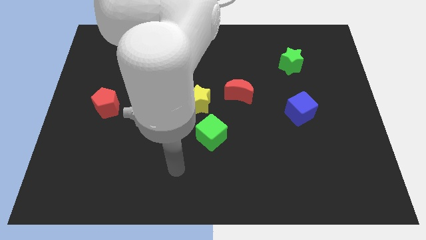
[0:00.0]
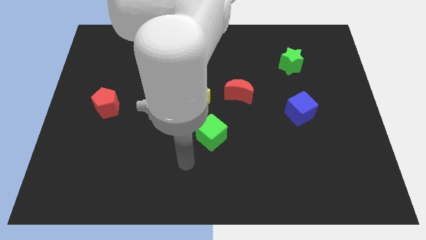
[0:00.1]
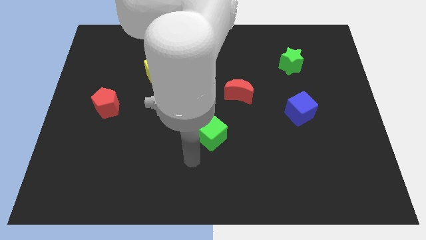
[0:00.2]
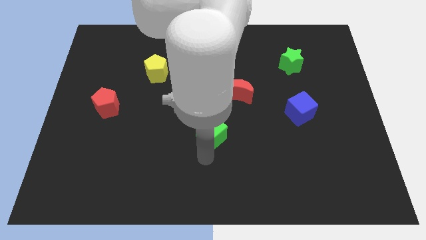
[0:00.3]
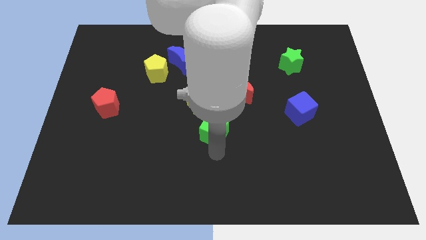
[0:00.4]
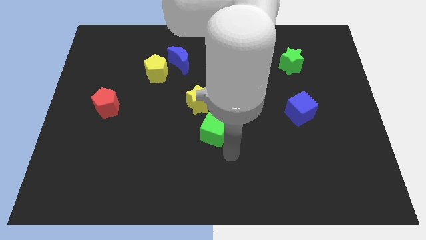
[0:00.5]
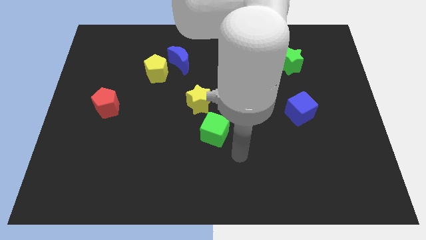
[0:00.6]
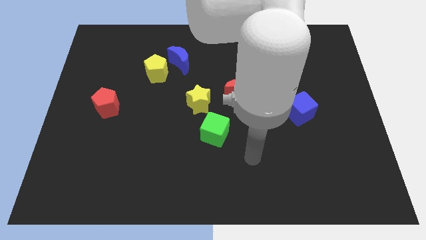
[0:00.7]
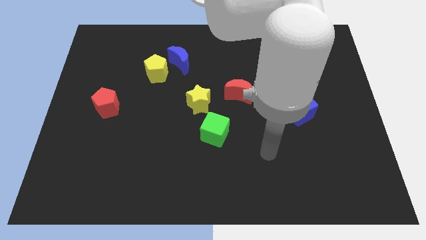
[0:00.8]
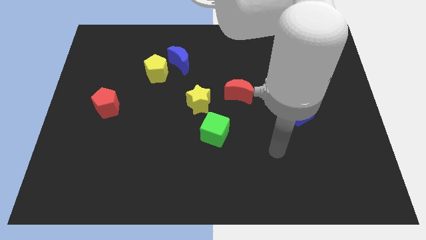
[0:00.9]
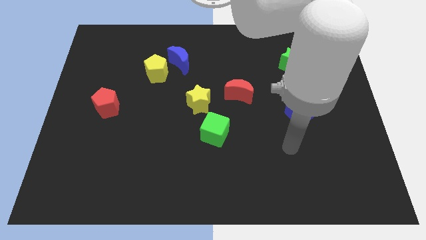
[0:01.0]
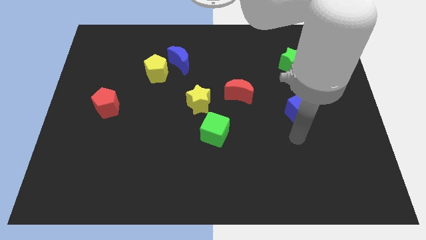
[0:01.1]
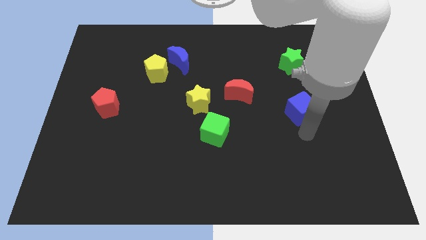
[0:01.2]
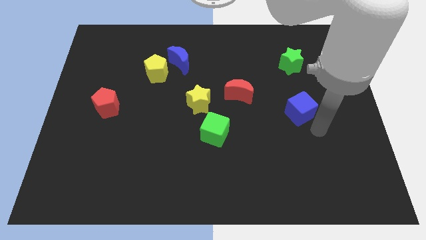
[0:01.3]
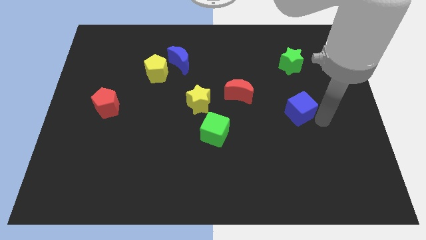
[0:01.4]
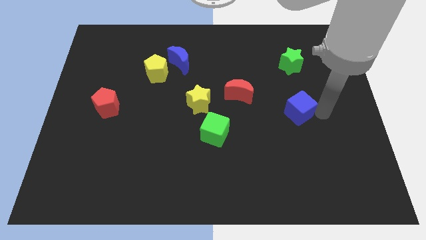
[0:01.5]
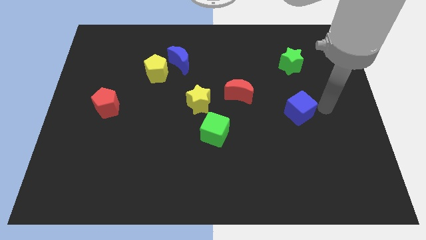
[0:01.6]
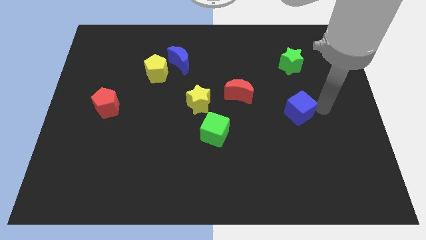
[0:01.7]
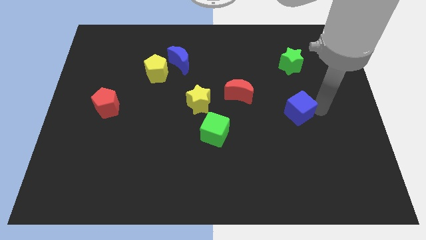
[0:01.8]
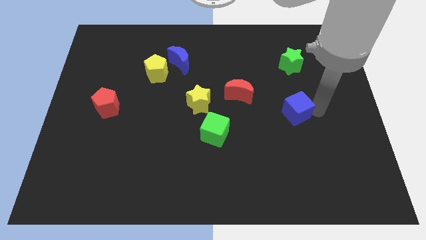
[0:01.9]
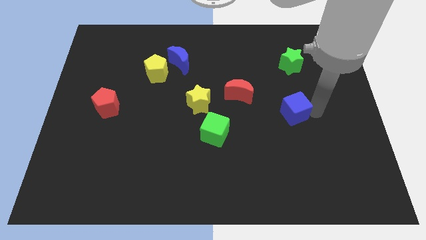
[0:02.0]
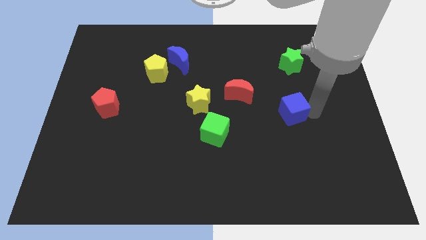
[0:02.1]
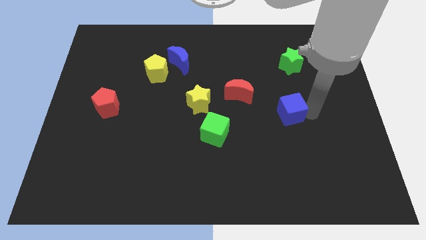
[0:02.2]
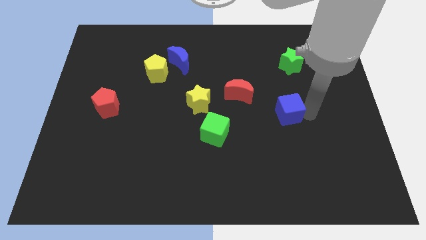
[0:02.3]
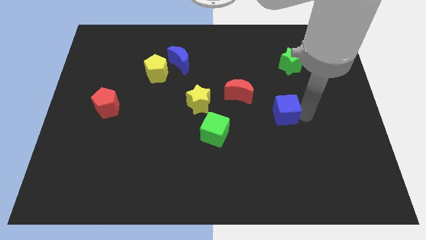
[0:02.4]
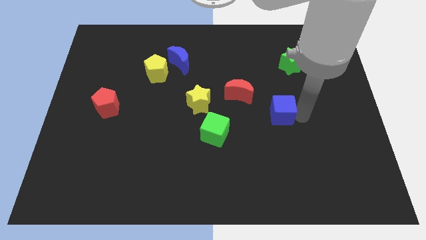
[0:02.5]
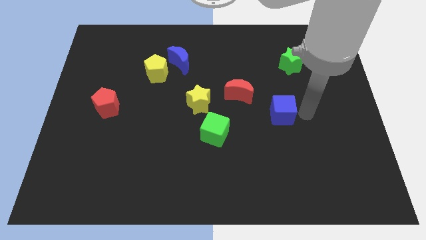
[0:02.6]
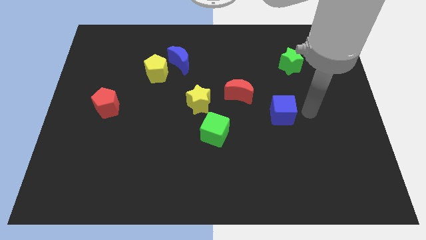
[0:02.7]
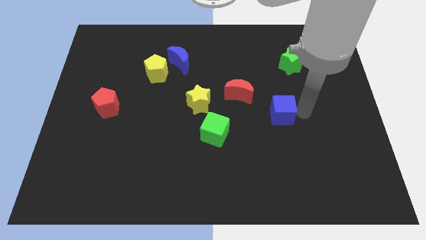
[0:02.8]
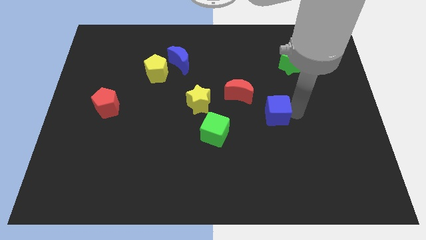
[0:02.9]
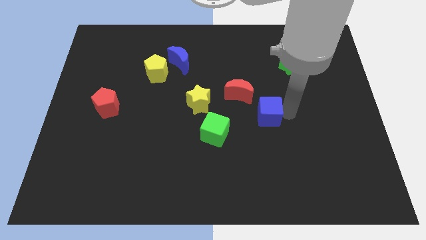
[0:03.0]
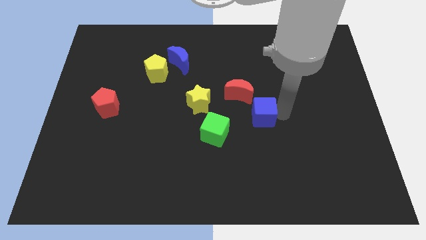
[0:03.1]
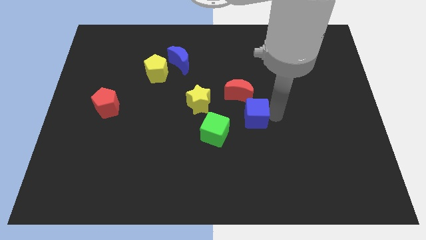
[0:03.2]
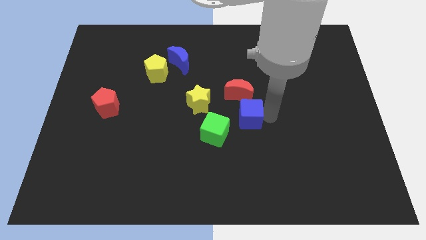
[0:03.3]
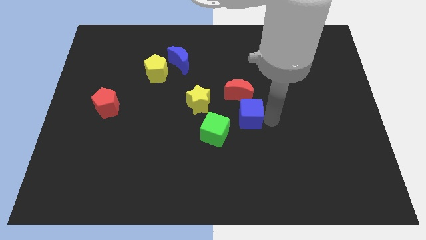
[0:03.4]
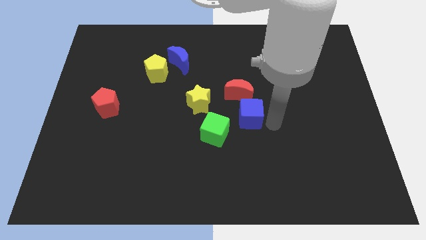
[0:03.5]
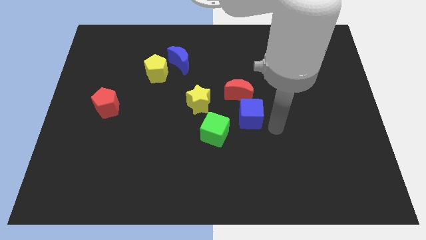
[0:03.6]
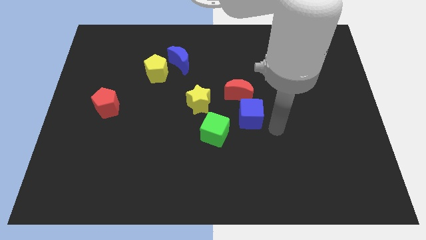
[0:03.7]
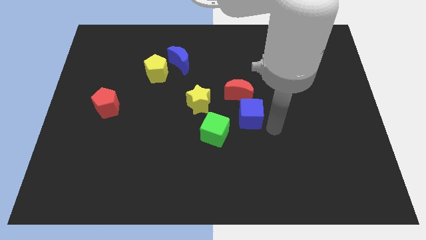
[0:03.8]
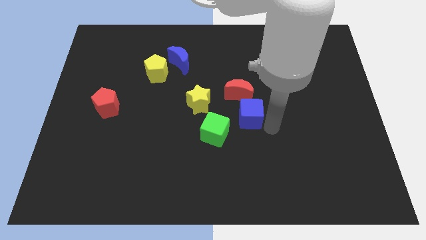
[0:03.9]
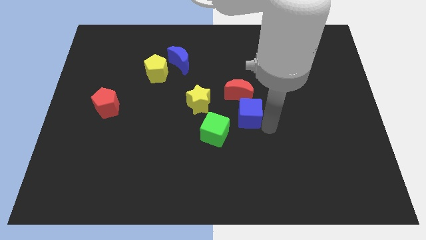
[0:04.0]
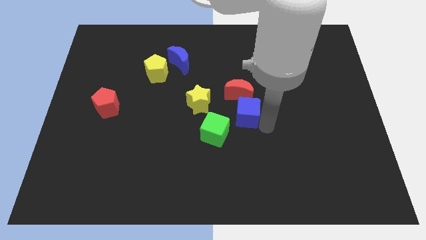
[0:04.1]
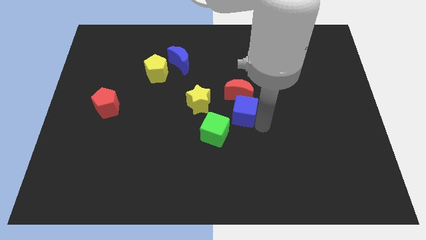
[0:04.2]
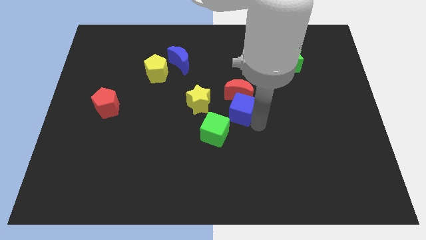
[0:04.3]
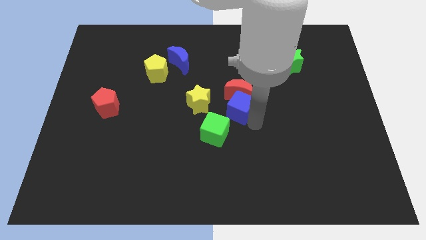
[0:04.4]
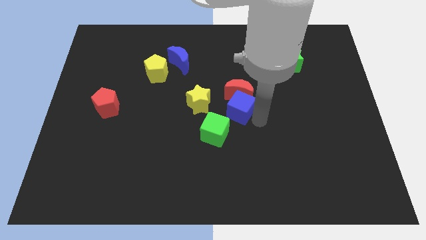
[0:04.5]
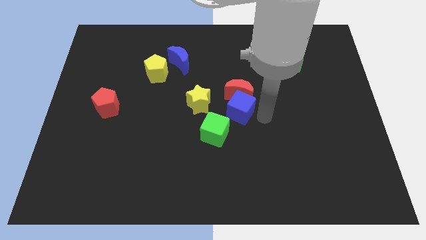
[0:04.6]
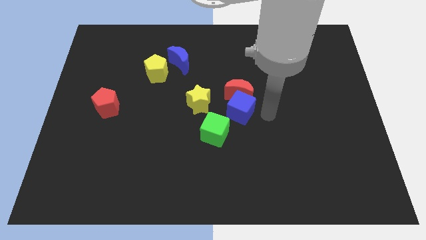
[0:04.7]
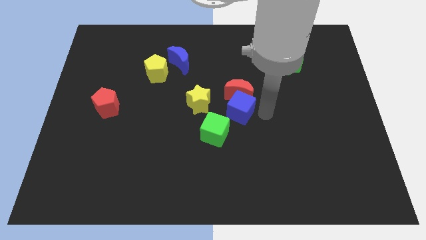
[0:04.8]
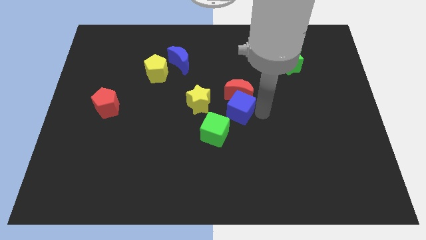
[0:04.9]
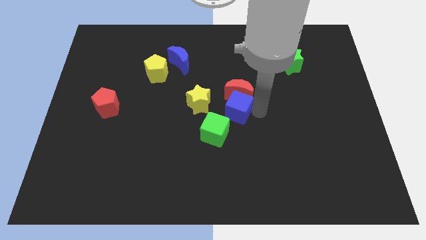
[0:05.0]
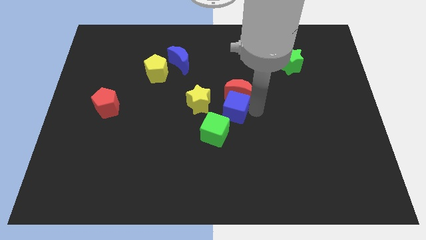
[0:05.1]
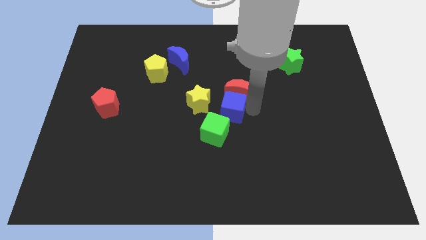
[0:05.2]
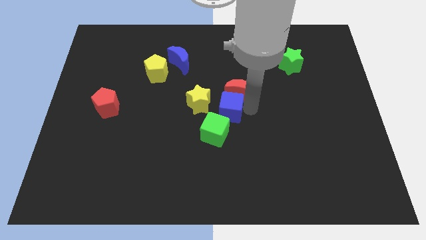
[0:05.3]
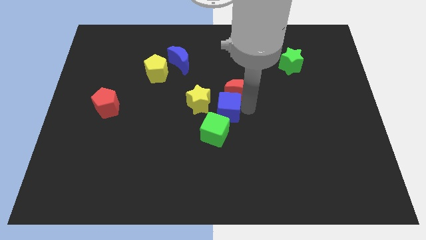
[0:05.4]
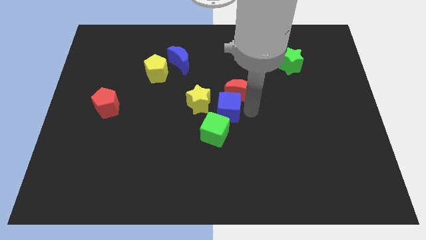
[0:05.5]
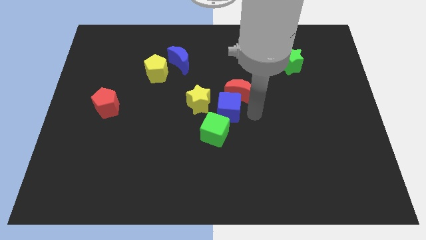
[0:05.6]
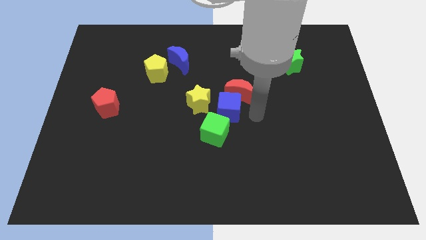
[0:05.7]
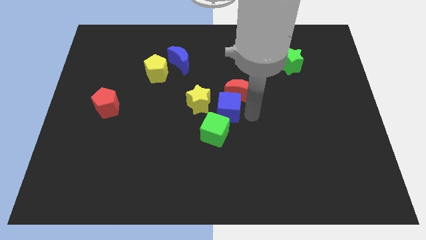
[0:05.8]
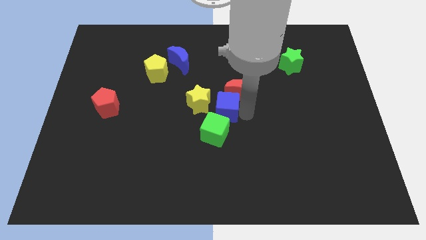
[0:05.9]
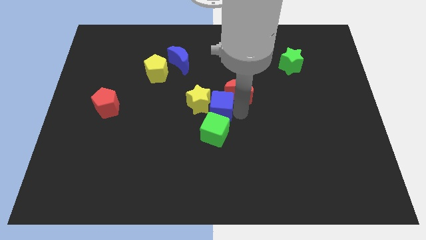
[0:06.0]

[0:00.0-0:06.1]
slide the blue cube to the yellow star

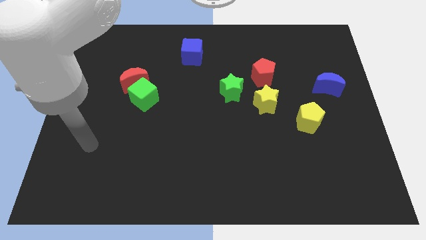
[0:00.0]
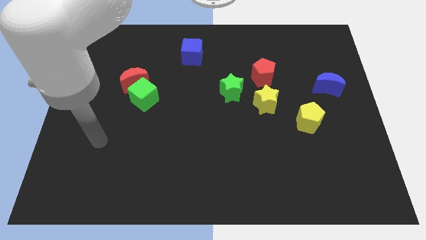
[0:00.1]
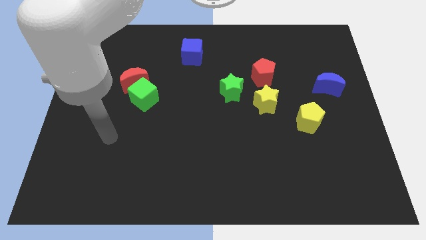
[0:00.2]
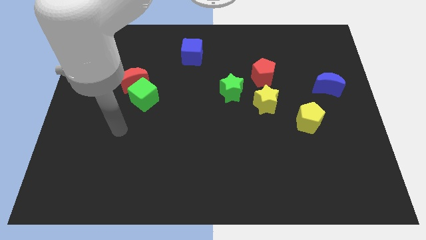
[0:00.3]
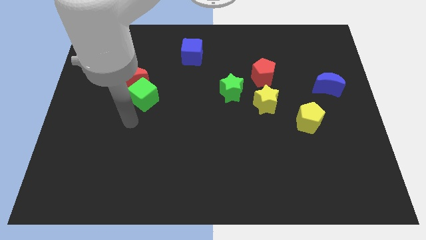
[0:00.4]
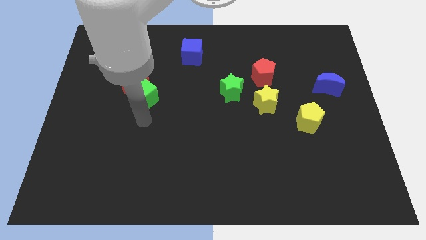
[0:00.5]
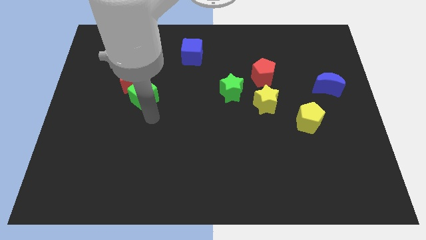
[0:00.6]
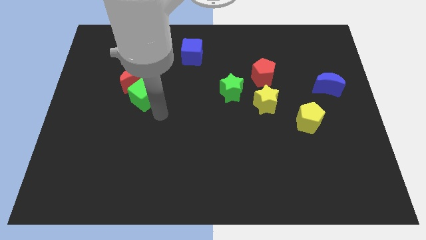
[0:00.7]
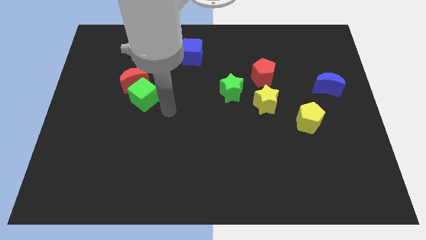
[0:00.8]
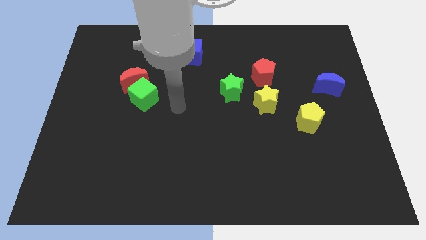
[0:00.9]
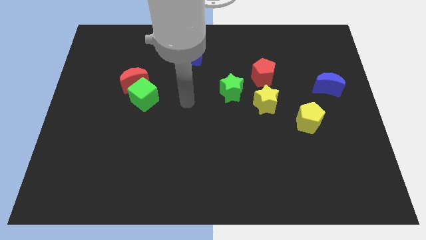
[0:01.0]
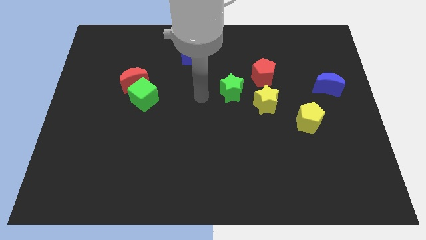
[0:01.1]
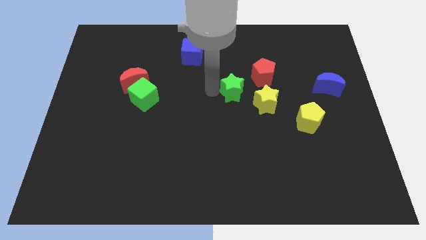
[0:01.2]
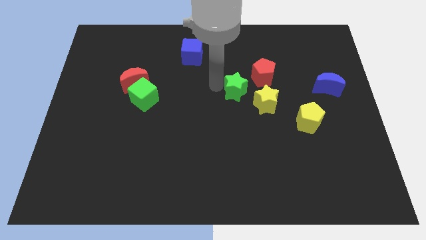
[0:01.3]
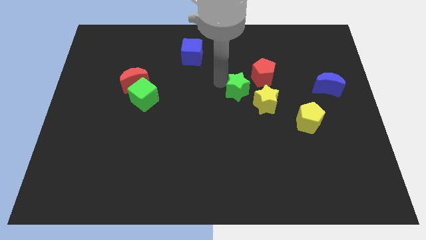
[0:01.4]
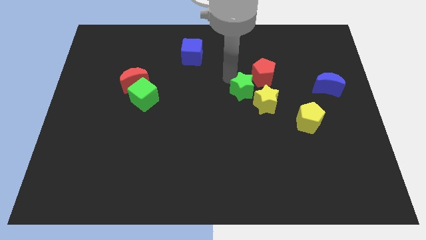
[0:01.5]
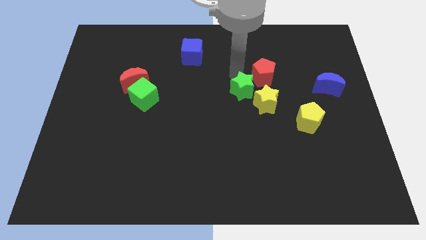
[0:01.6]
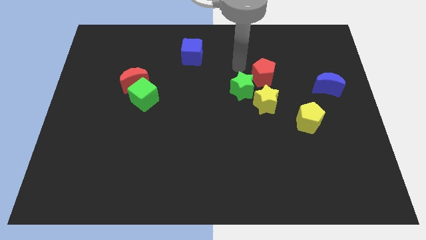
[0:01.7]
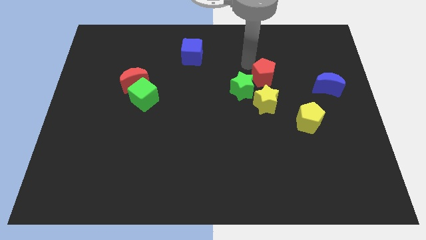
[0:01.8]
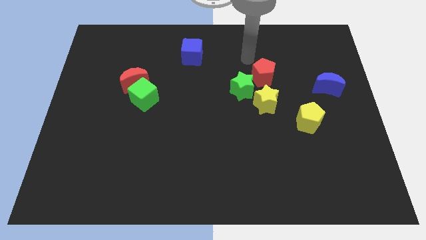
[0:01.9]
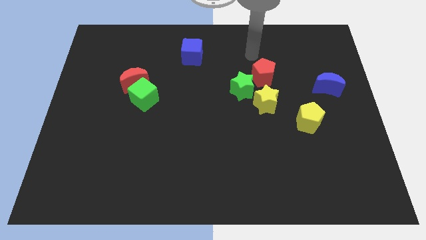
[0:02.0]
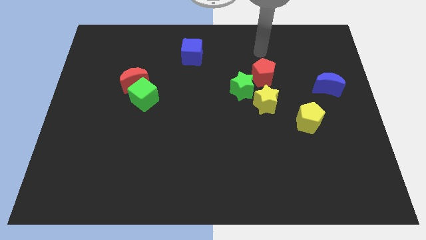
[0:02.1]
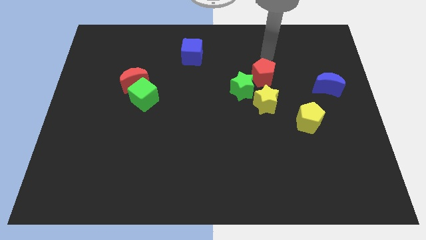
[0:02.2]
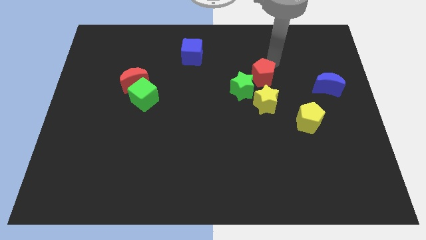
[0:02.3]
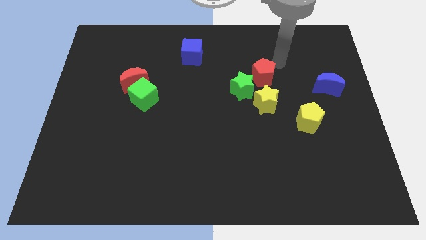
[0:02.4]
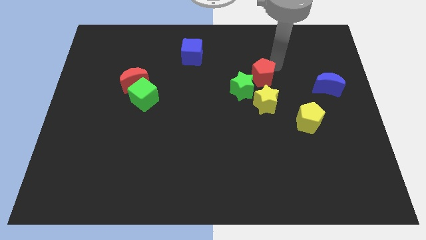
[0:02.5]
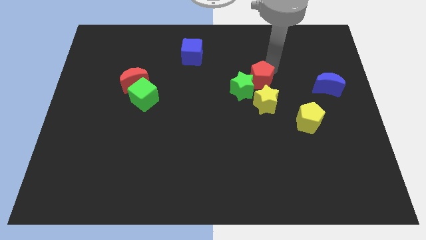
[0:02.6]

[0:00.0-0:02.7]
push the red pentagon next to the green star
